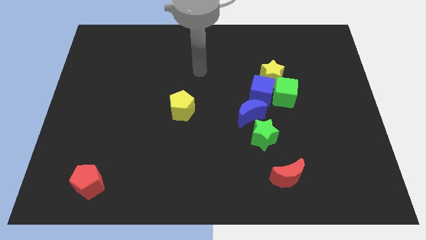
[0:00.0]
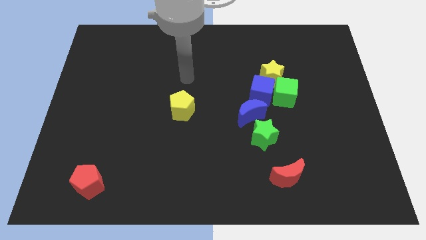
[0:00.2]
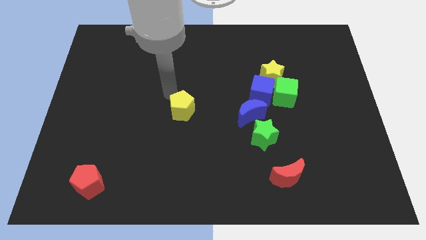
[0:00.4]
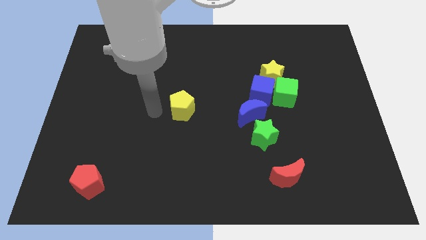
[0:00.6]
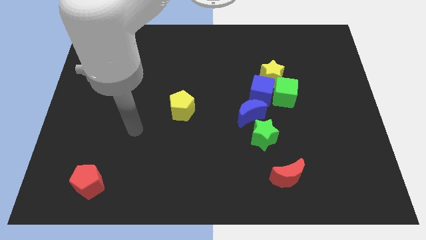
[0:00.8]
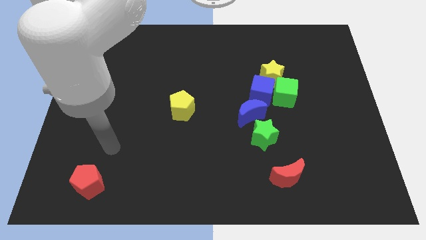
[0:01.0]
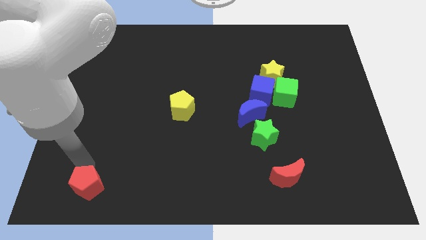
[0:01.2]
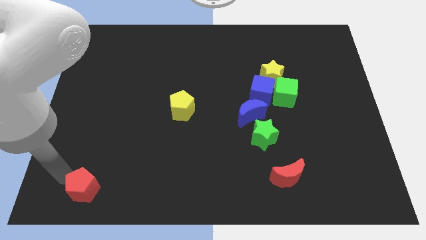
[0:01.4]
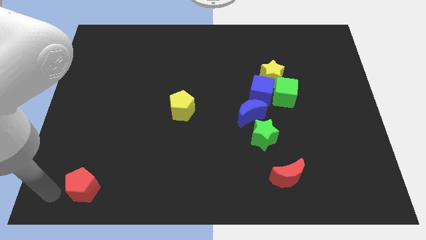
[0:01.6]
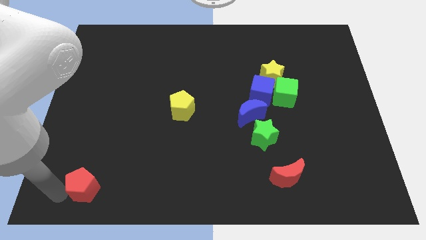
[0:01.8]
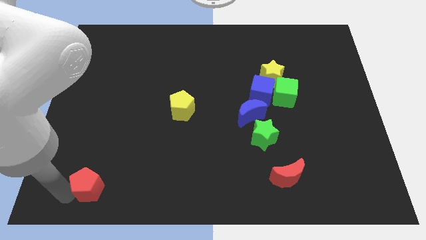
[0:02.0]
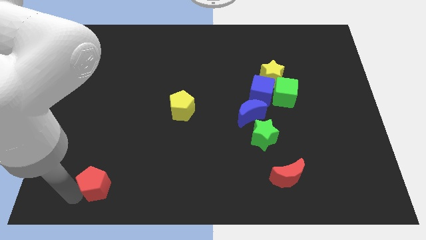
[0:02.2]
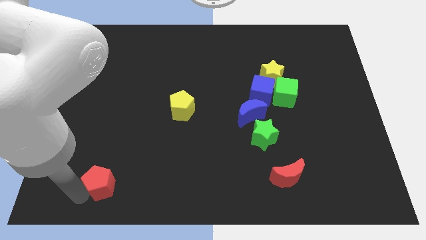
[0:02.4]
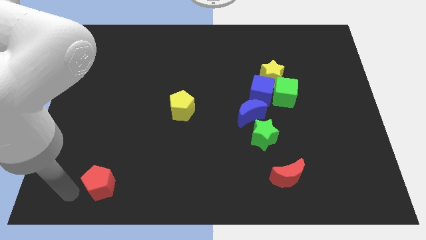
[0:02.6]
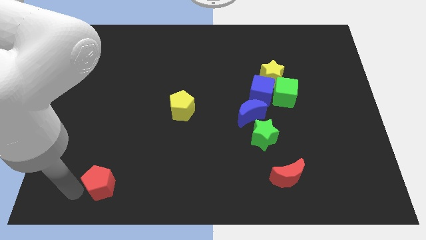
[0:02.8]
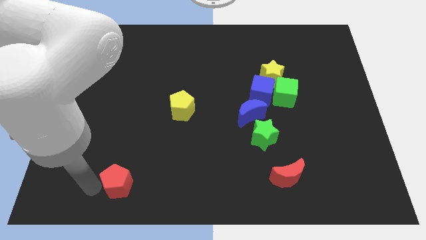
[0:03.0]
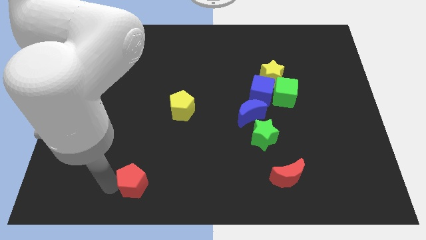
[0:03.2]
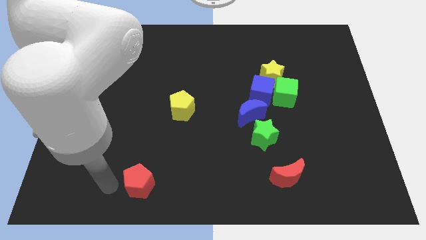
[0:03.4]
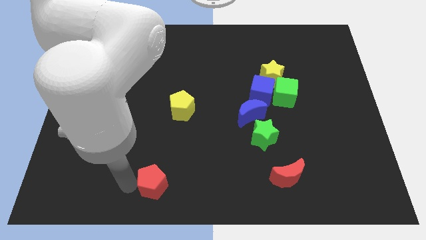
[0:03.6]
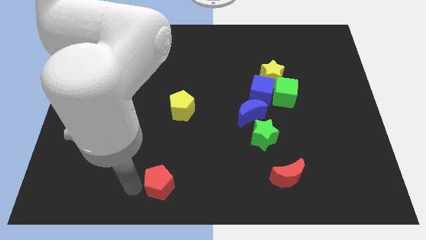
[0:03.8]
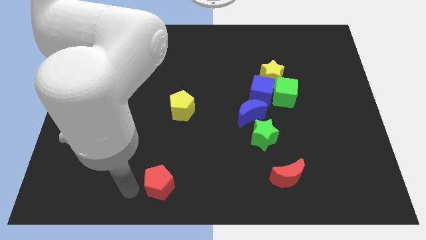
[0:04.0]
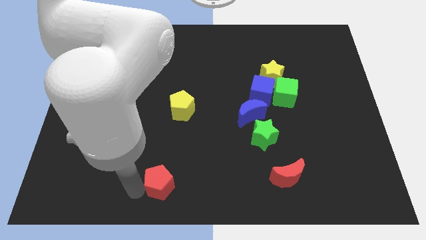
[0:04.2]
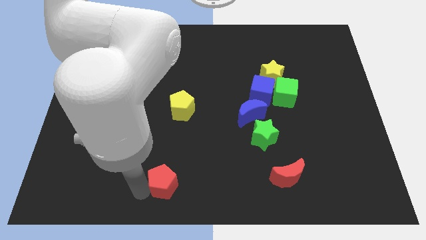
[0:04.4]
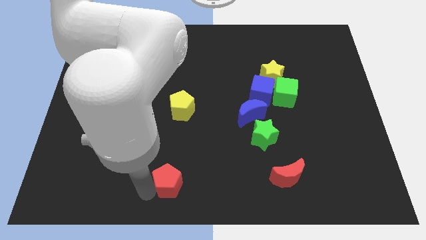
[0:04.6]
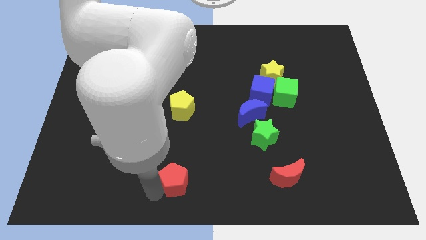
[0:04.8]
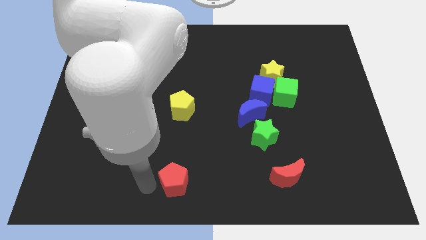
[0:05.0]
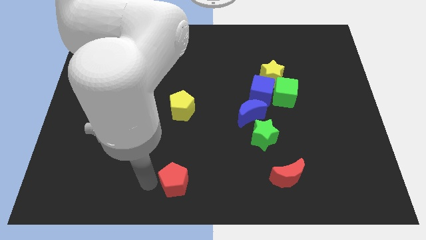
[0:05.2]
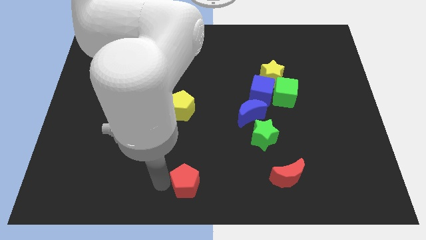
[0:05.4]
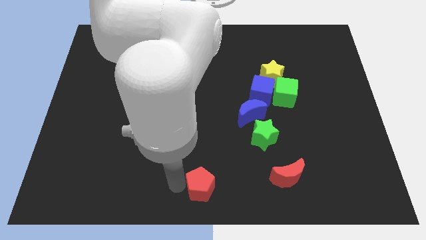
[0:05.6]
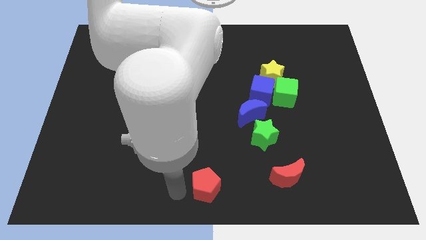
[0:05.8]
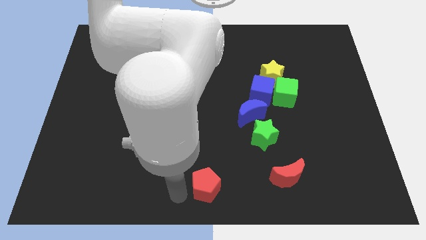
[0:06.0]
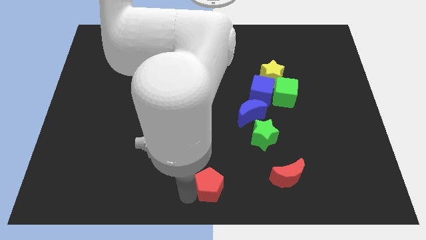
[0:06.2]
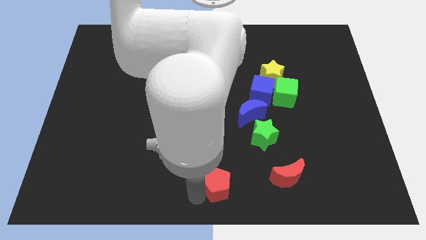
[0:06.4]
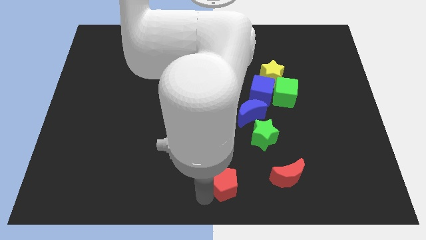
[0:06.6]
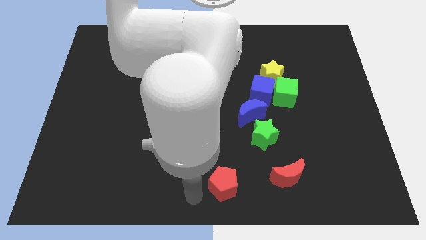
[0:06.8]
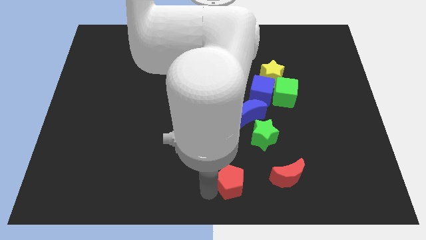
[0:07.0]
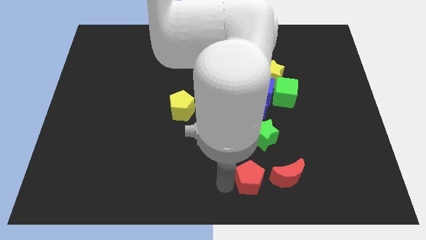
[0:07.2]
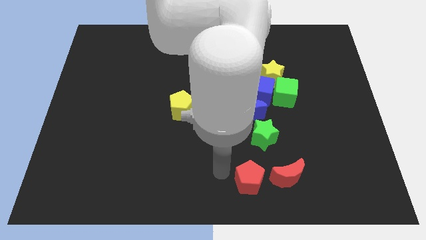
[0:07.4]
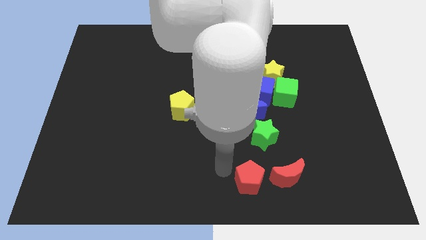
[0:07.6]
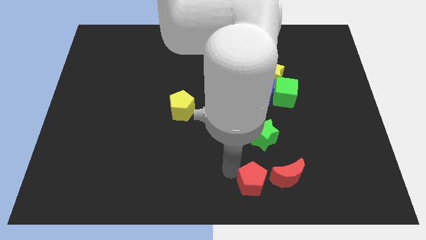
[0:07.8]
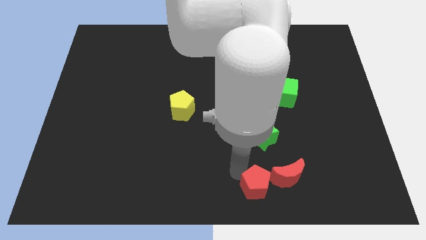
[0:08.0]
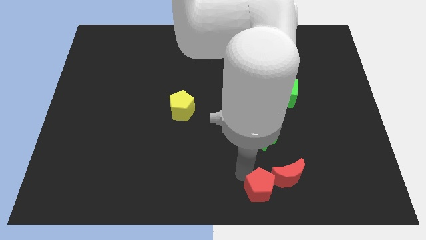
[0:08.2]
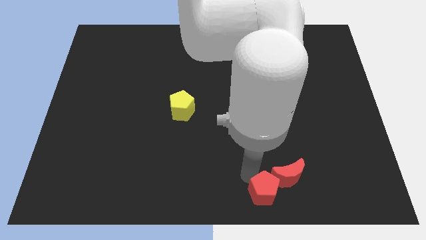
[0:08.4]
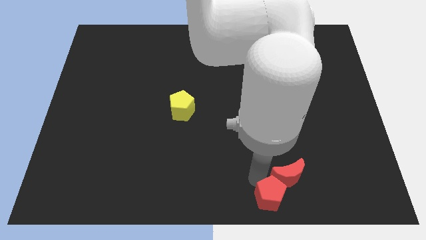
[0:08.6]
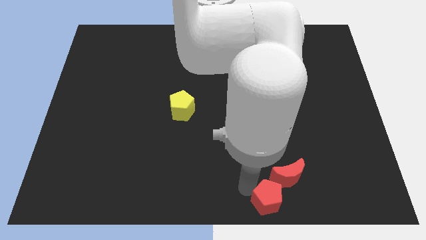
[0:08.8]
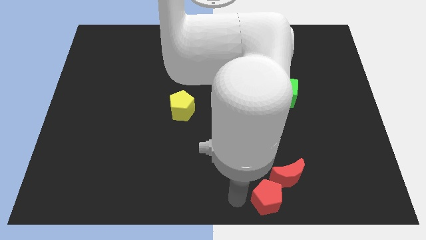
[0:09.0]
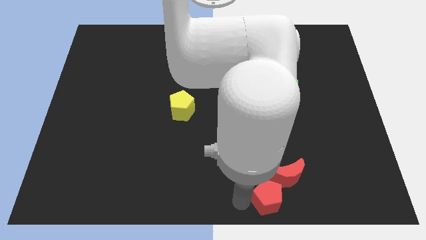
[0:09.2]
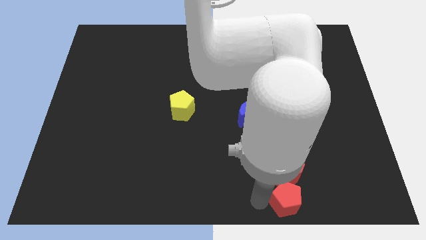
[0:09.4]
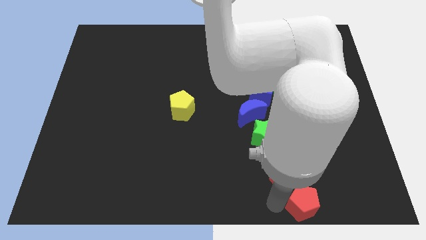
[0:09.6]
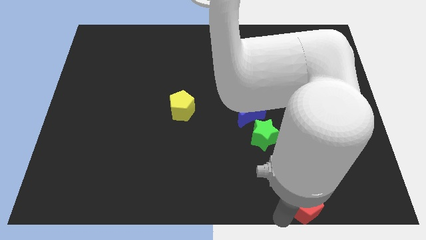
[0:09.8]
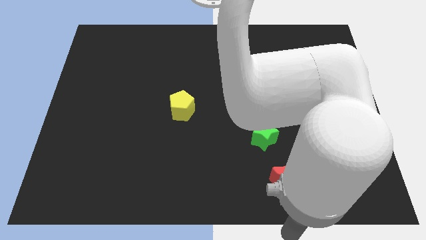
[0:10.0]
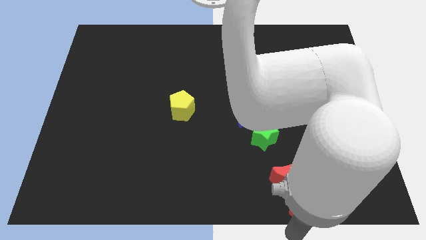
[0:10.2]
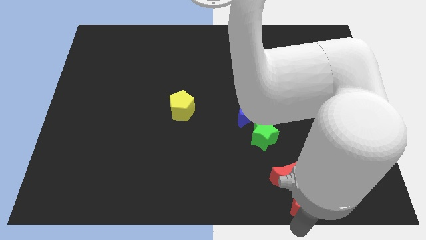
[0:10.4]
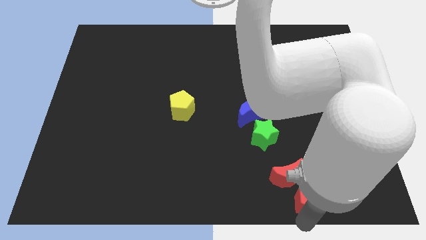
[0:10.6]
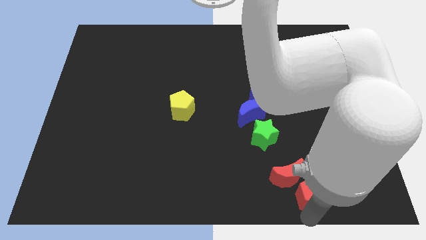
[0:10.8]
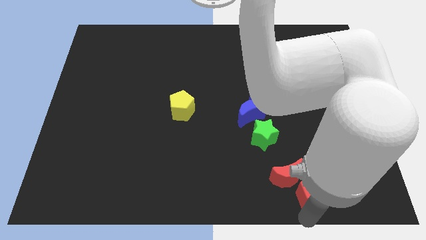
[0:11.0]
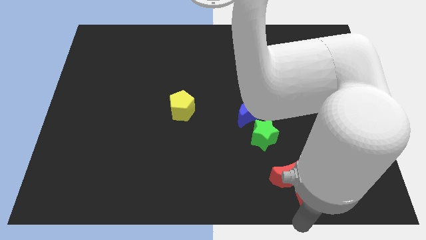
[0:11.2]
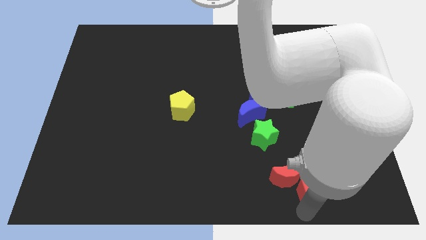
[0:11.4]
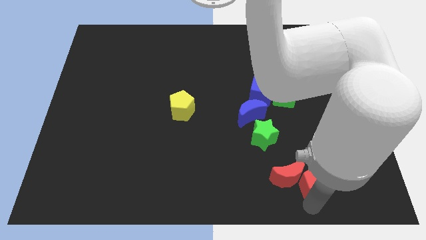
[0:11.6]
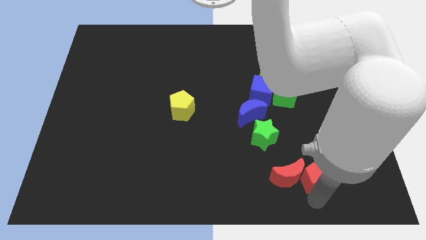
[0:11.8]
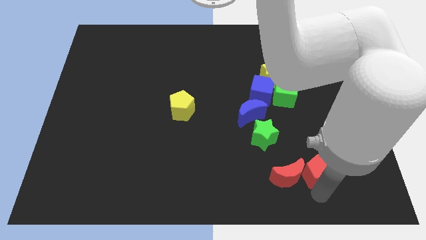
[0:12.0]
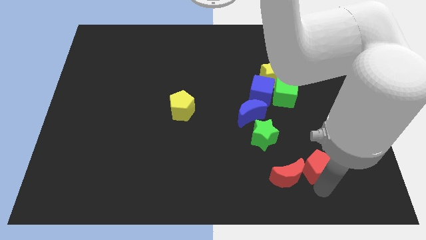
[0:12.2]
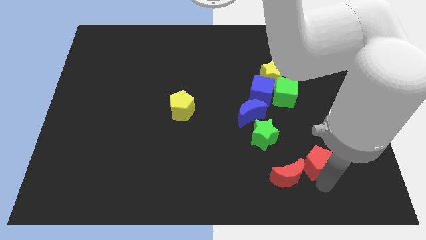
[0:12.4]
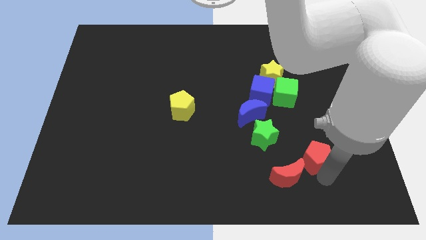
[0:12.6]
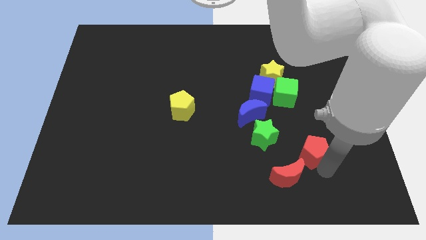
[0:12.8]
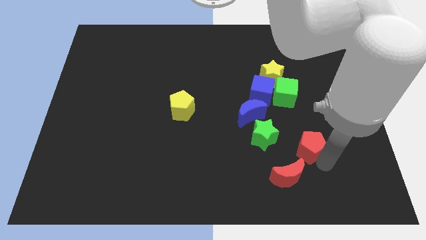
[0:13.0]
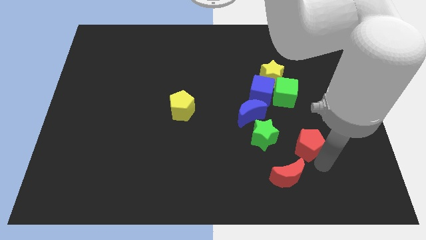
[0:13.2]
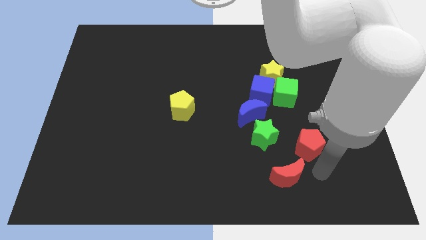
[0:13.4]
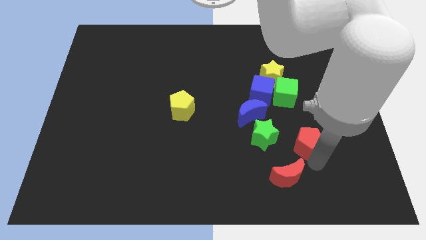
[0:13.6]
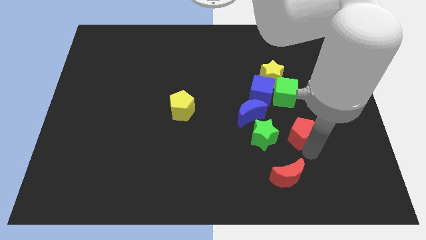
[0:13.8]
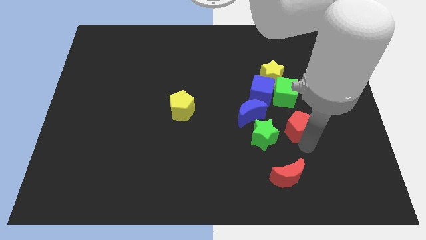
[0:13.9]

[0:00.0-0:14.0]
slide the red pentagon just right of the blue moon

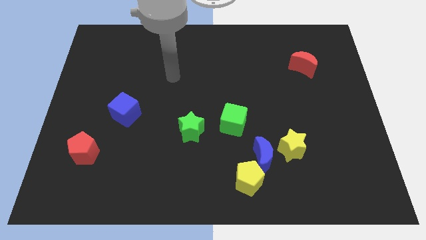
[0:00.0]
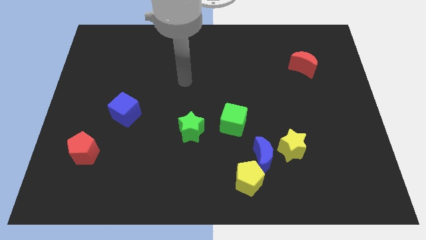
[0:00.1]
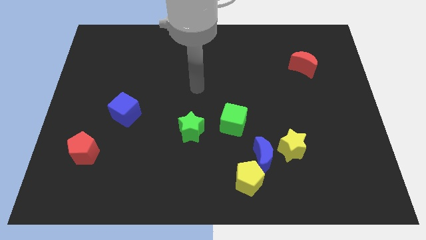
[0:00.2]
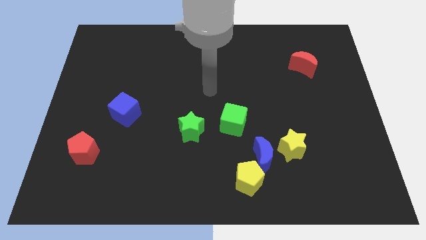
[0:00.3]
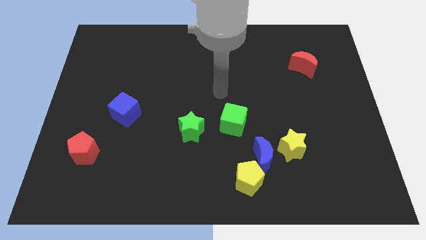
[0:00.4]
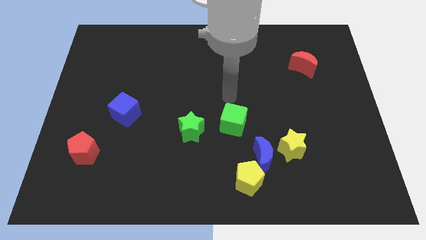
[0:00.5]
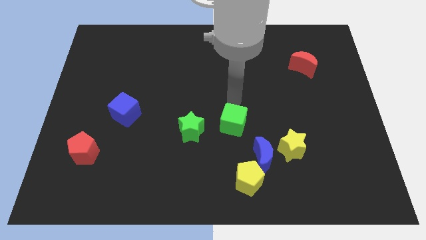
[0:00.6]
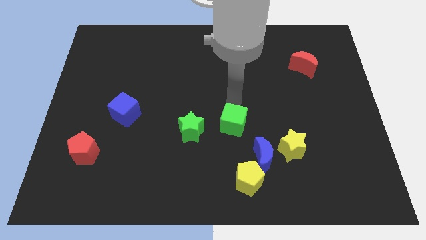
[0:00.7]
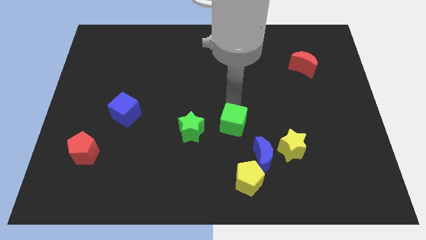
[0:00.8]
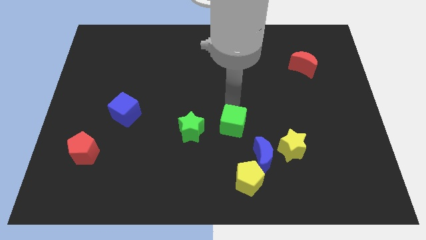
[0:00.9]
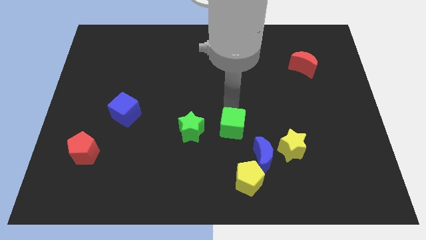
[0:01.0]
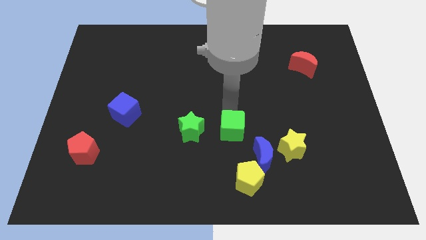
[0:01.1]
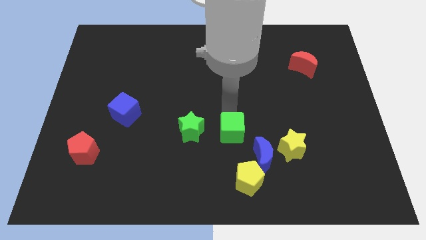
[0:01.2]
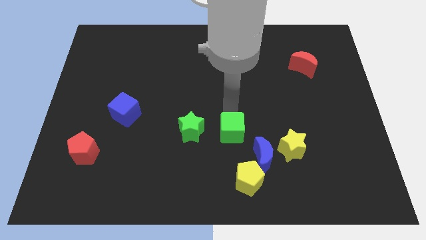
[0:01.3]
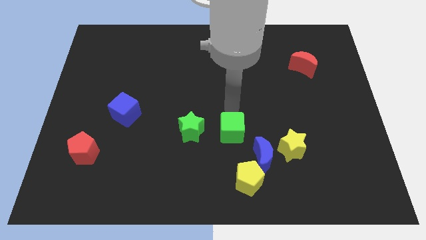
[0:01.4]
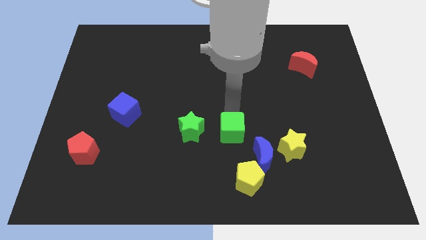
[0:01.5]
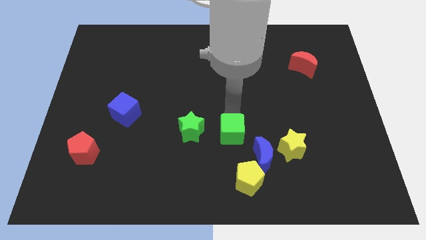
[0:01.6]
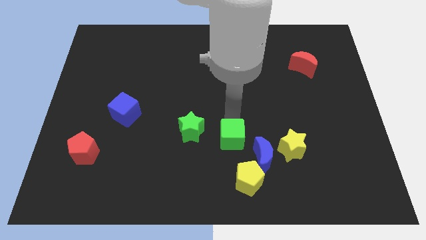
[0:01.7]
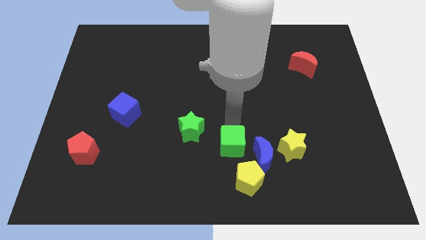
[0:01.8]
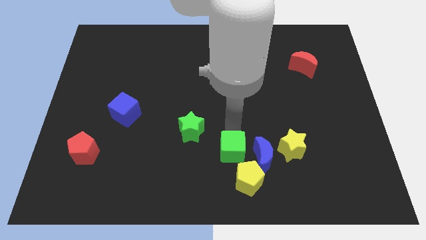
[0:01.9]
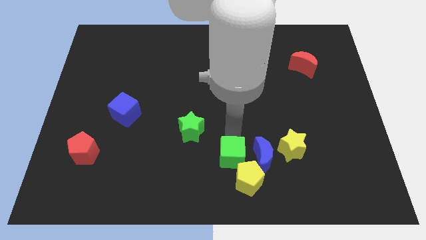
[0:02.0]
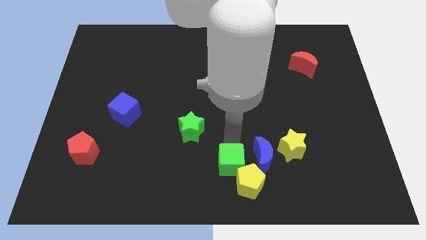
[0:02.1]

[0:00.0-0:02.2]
put the green cube diagonally down and to the left of the blue moon
